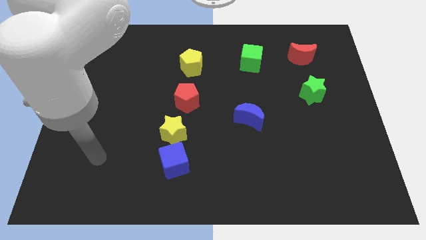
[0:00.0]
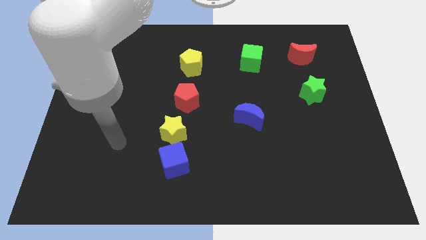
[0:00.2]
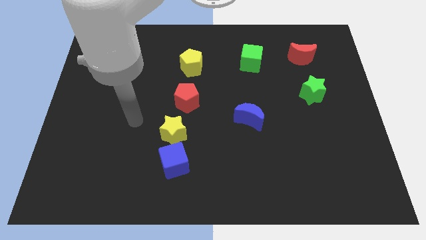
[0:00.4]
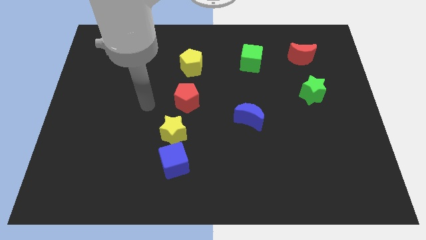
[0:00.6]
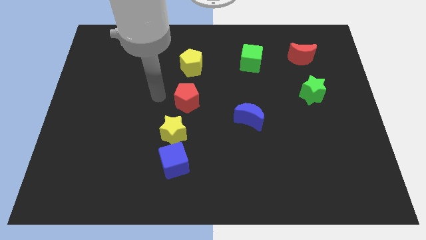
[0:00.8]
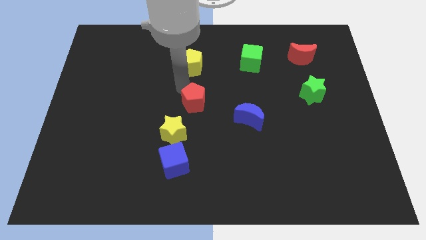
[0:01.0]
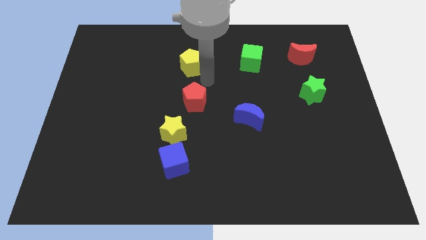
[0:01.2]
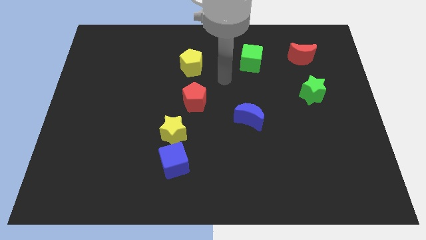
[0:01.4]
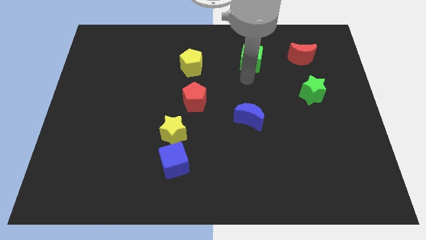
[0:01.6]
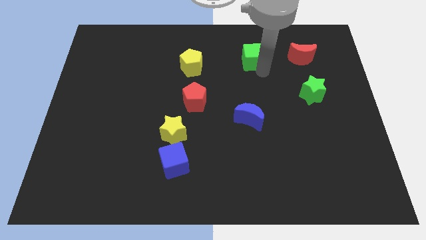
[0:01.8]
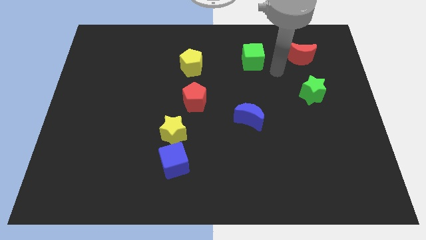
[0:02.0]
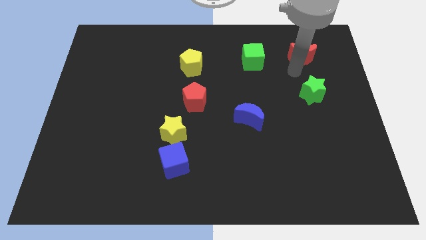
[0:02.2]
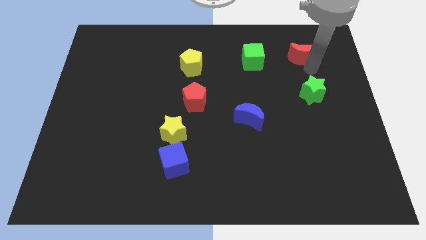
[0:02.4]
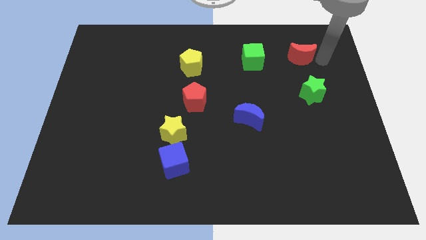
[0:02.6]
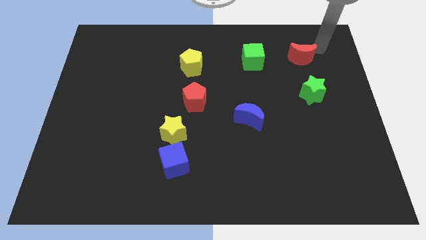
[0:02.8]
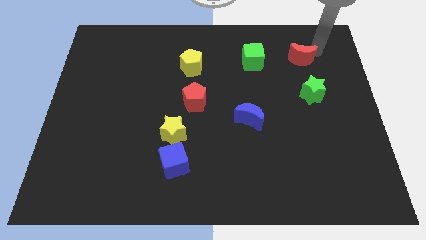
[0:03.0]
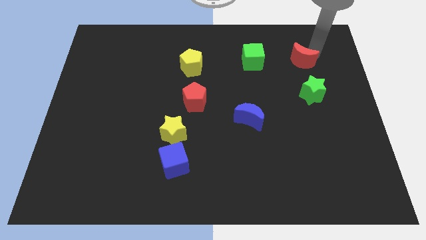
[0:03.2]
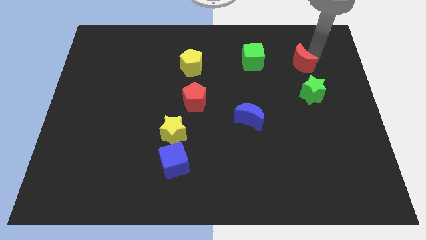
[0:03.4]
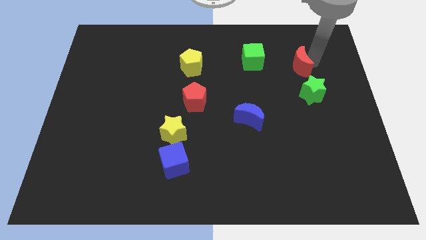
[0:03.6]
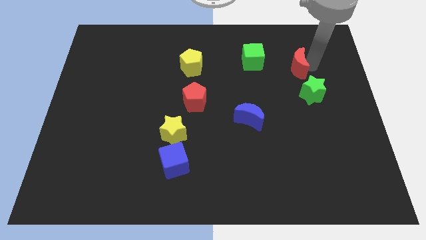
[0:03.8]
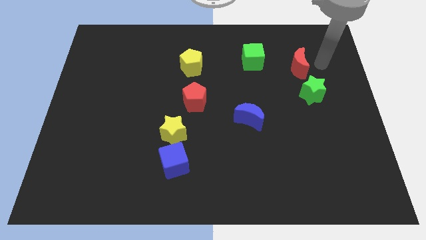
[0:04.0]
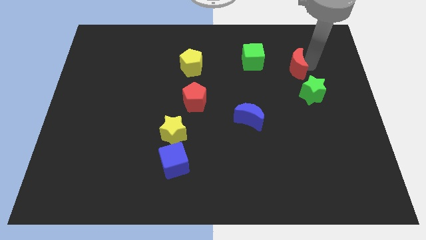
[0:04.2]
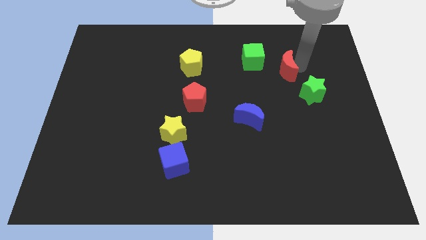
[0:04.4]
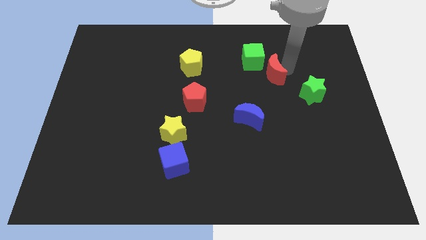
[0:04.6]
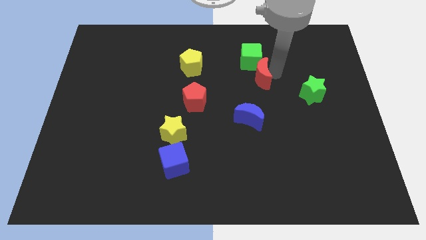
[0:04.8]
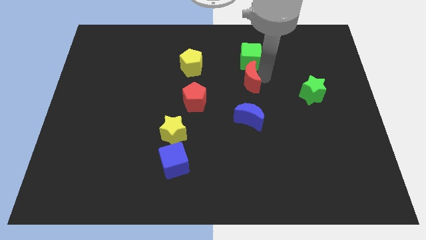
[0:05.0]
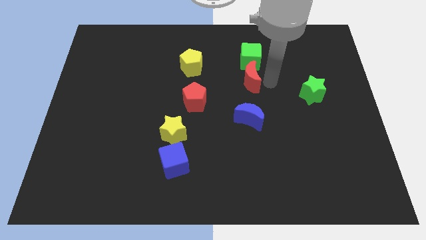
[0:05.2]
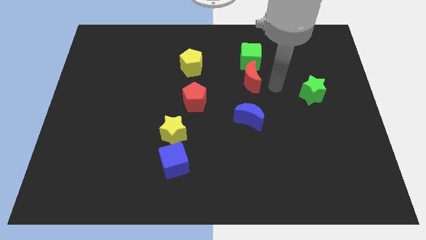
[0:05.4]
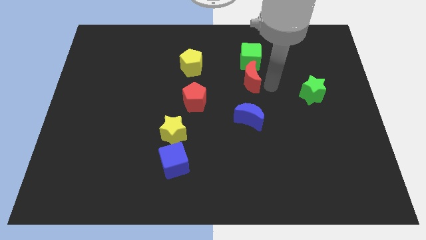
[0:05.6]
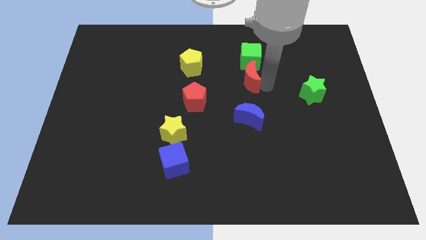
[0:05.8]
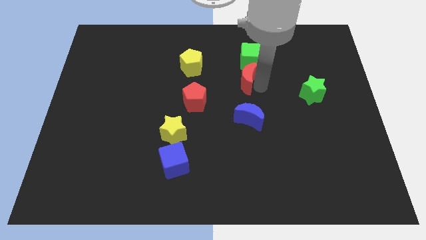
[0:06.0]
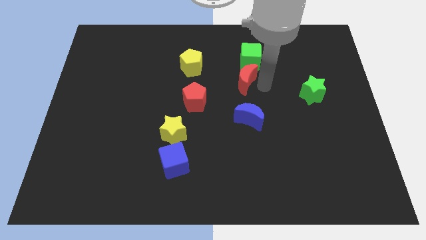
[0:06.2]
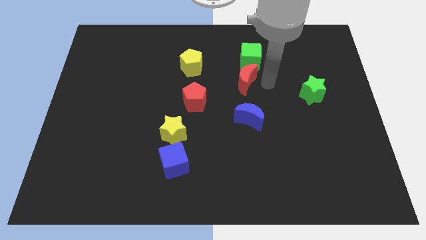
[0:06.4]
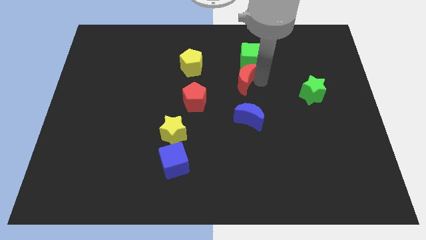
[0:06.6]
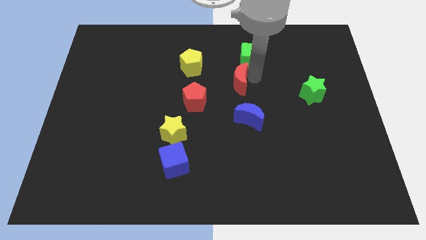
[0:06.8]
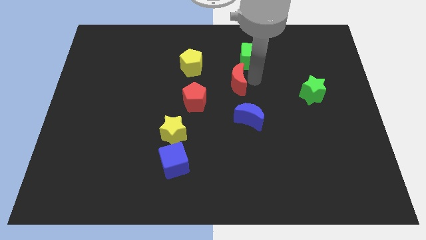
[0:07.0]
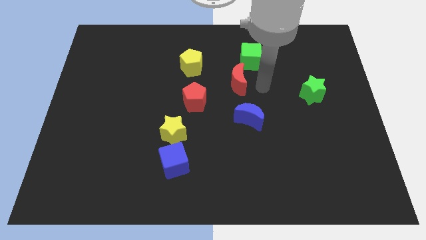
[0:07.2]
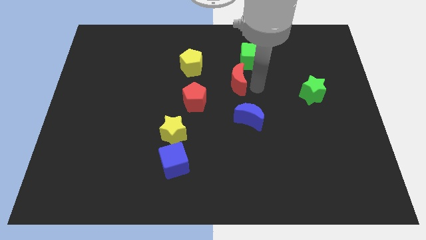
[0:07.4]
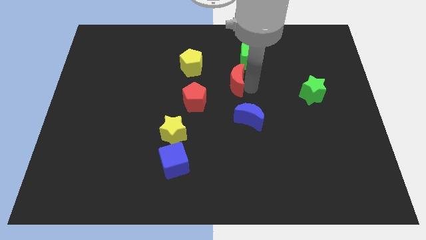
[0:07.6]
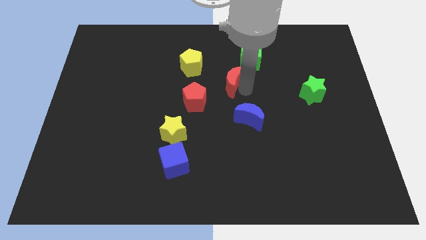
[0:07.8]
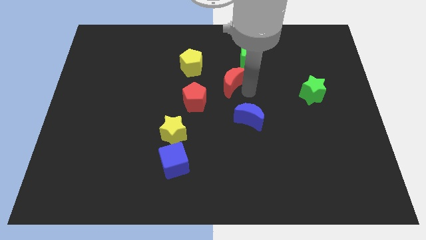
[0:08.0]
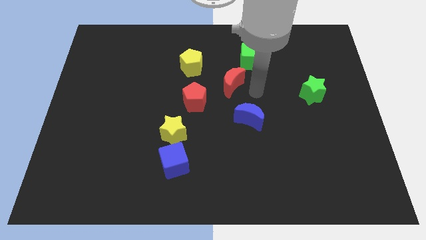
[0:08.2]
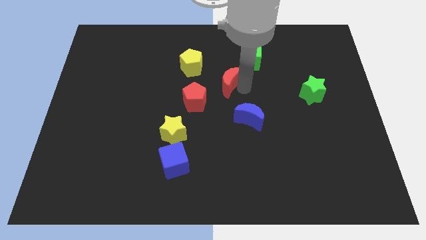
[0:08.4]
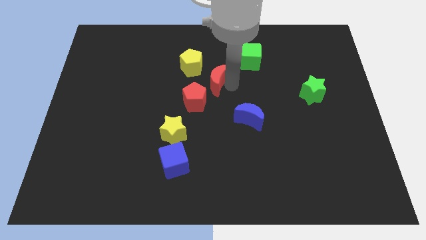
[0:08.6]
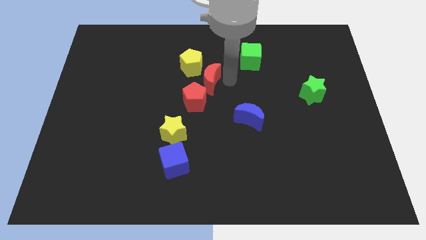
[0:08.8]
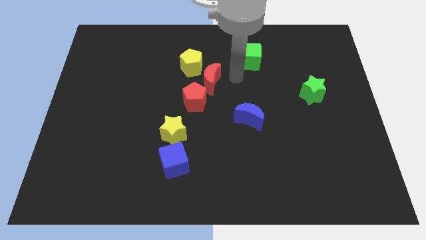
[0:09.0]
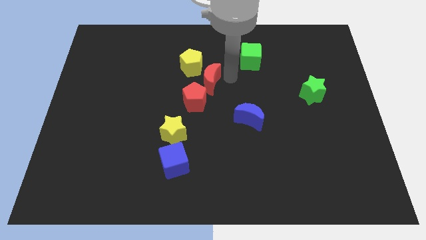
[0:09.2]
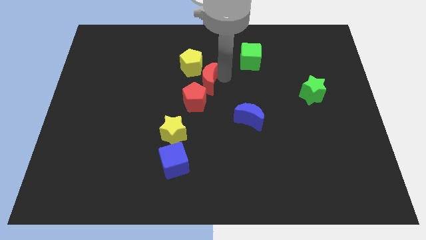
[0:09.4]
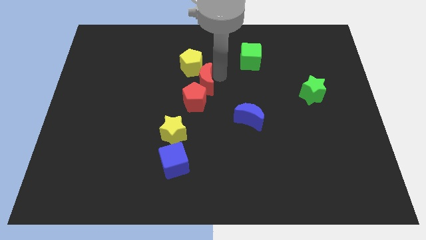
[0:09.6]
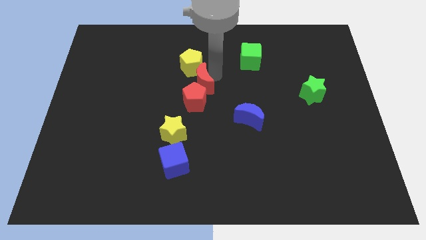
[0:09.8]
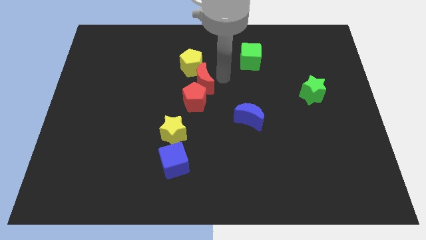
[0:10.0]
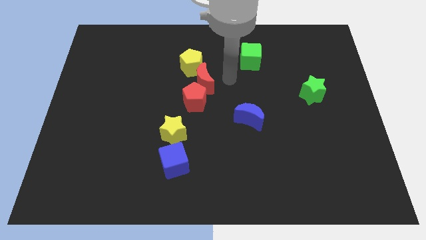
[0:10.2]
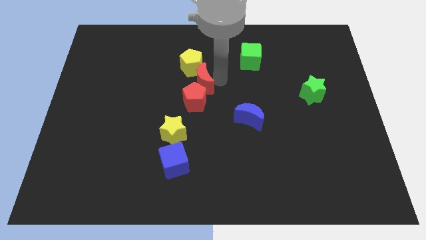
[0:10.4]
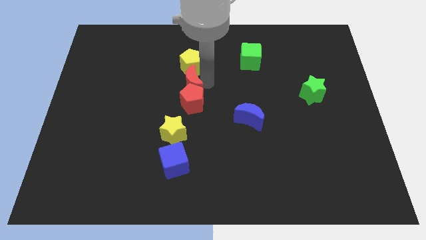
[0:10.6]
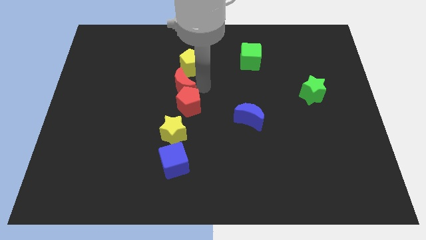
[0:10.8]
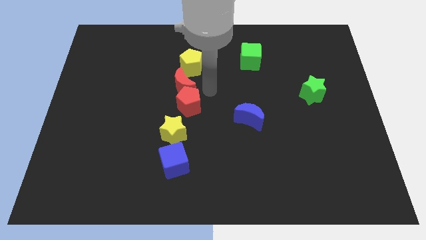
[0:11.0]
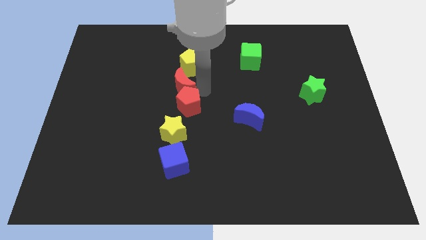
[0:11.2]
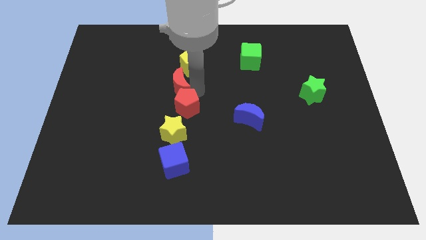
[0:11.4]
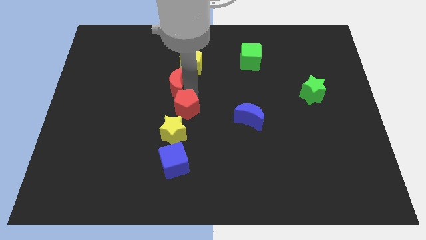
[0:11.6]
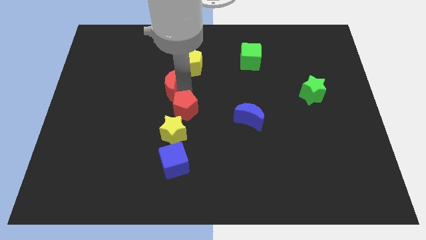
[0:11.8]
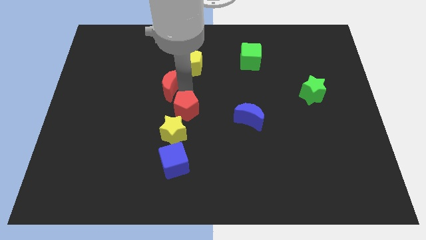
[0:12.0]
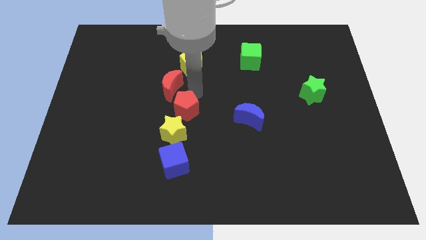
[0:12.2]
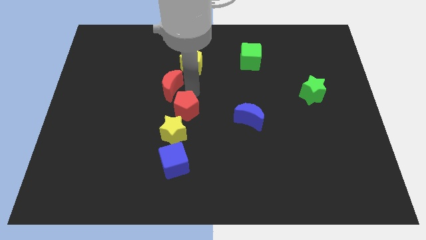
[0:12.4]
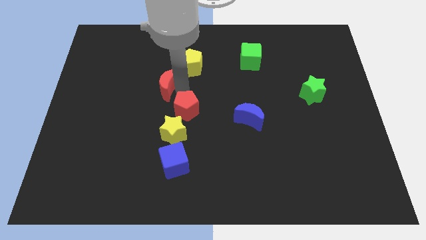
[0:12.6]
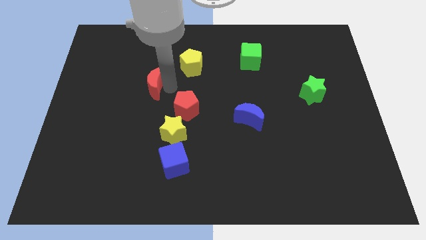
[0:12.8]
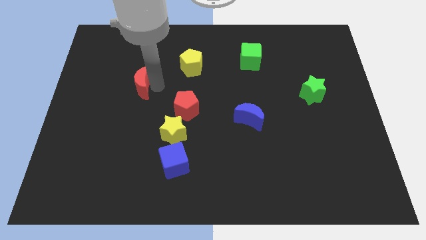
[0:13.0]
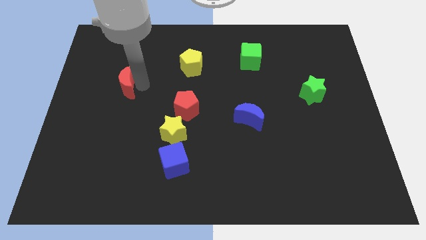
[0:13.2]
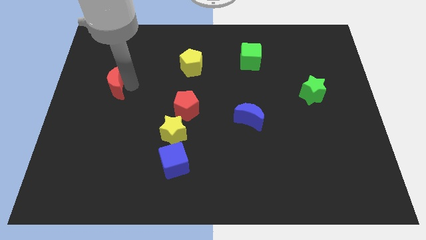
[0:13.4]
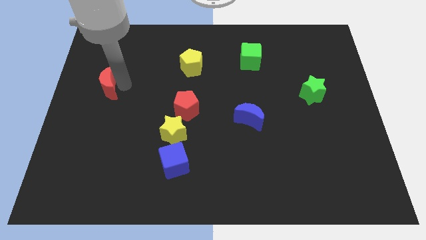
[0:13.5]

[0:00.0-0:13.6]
push the red moon to the left side of the board

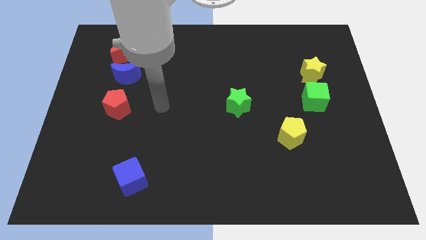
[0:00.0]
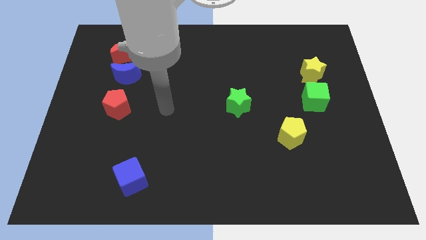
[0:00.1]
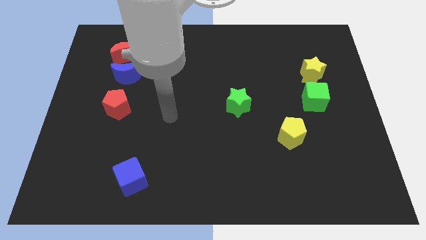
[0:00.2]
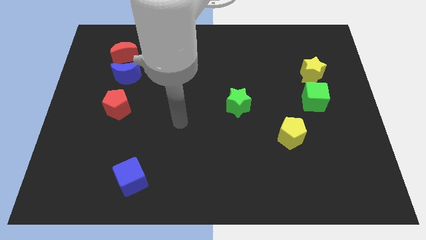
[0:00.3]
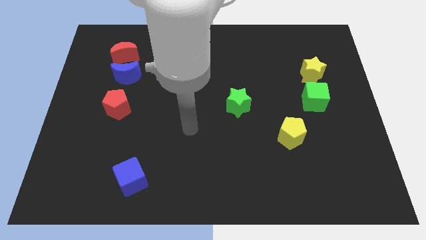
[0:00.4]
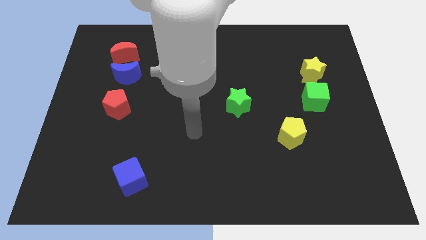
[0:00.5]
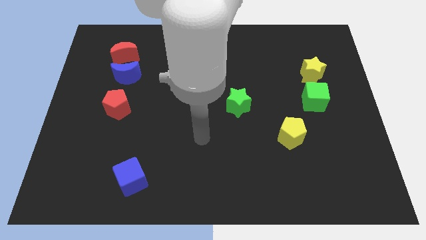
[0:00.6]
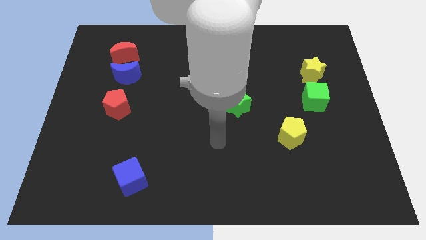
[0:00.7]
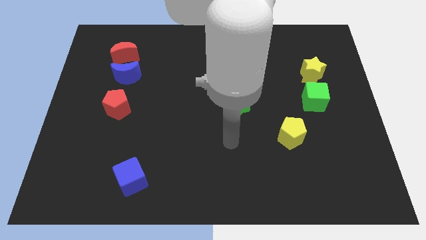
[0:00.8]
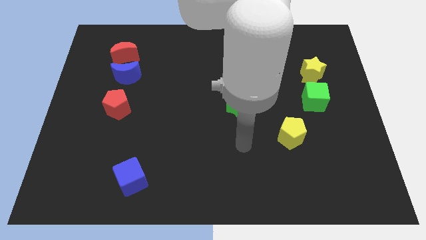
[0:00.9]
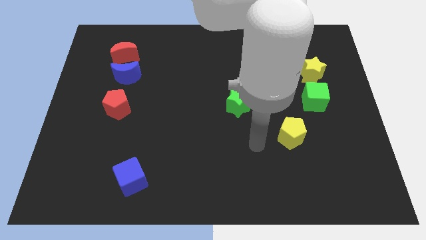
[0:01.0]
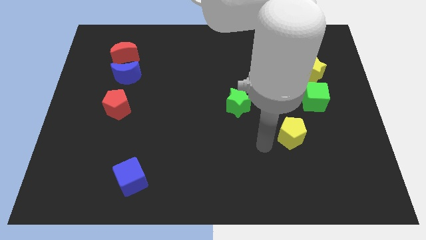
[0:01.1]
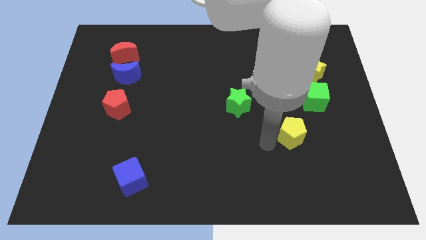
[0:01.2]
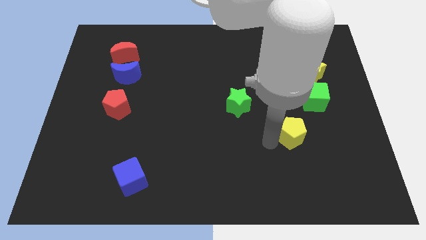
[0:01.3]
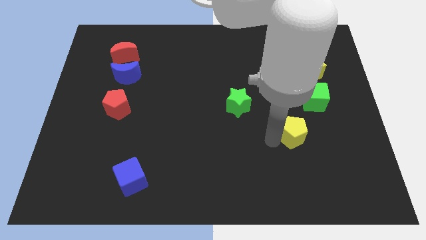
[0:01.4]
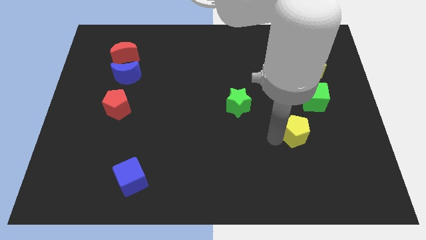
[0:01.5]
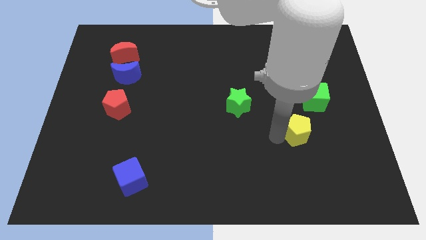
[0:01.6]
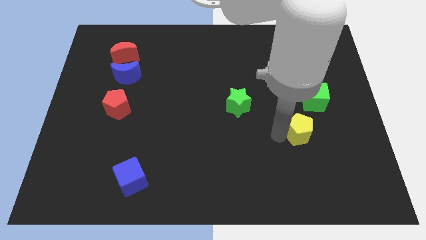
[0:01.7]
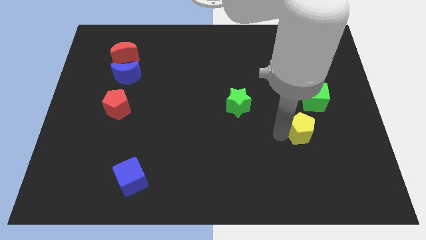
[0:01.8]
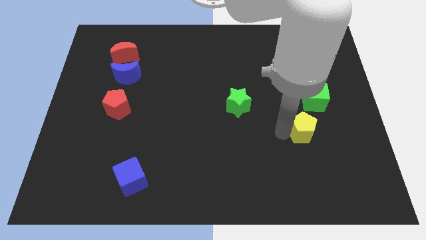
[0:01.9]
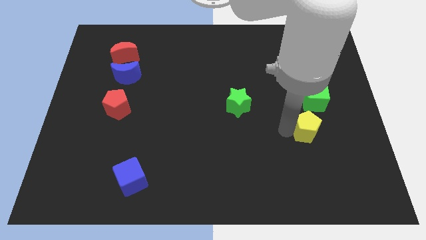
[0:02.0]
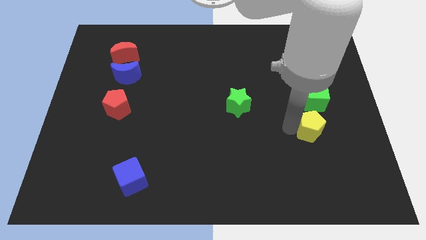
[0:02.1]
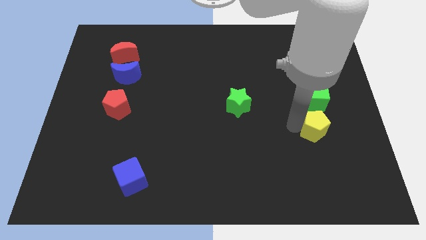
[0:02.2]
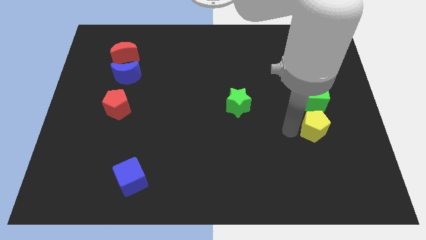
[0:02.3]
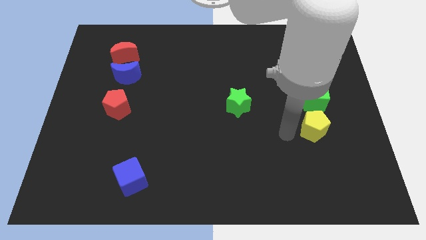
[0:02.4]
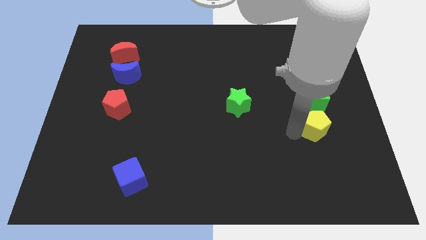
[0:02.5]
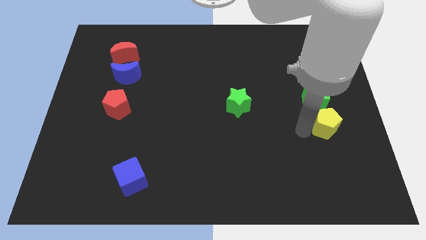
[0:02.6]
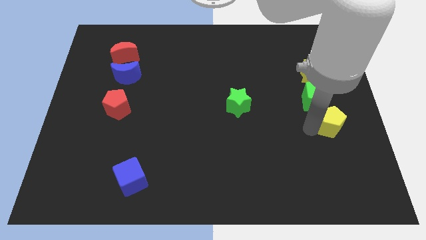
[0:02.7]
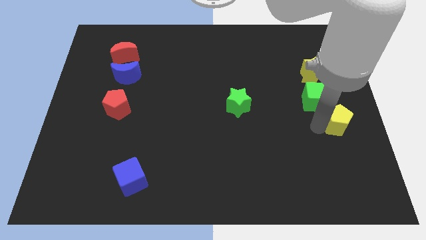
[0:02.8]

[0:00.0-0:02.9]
slide the yellow pentagon to the right side of the board
